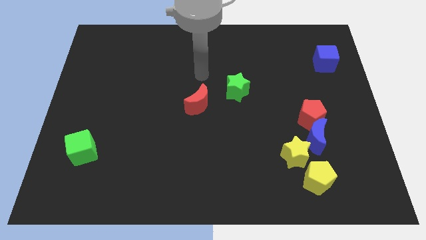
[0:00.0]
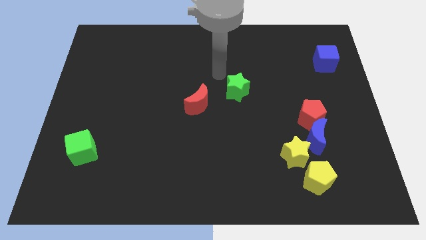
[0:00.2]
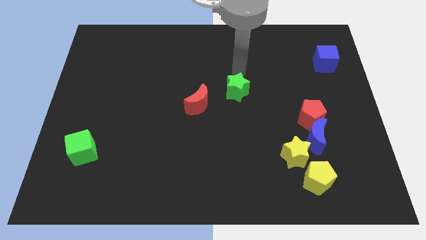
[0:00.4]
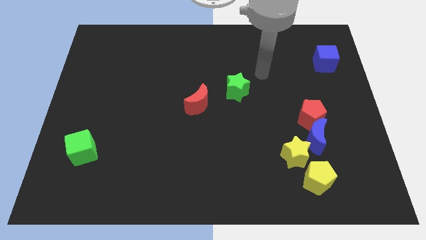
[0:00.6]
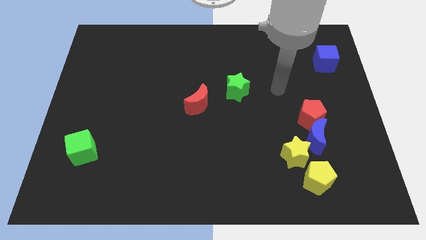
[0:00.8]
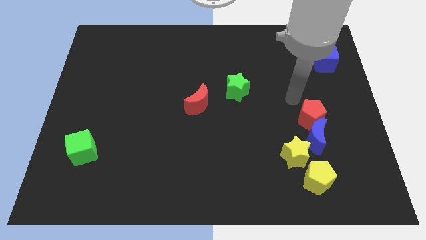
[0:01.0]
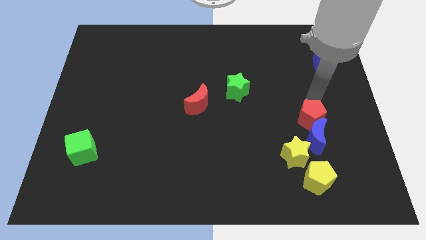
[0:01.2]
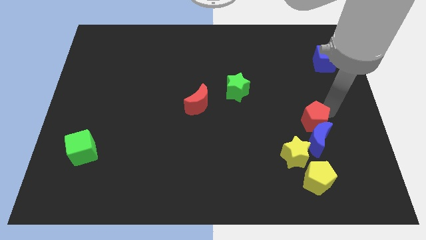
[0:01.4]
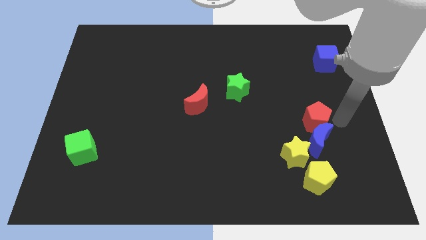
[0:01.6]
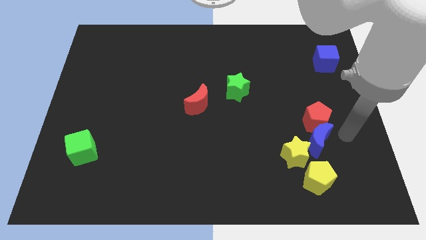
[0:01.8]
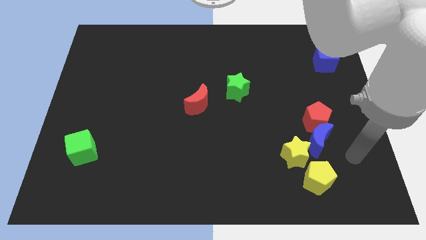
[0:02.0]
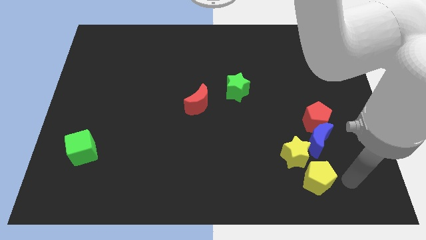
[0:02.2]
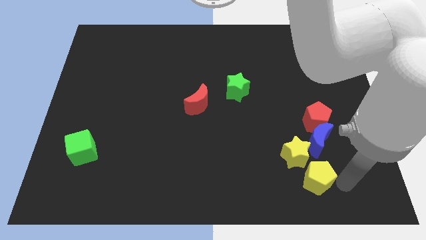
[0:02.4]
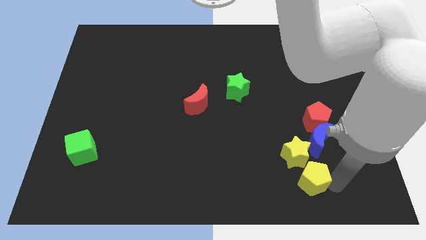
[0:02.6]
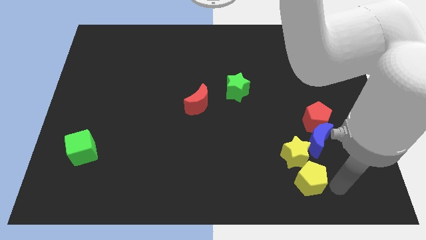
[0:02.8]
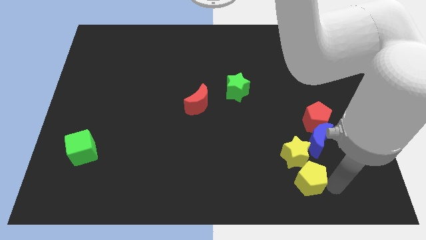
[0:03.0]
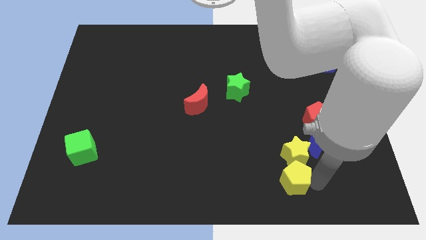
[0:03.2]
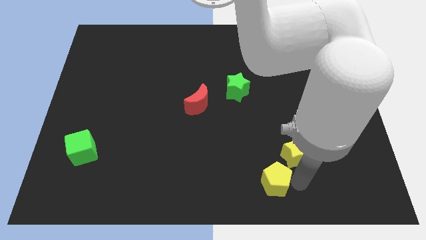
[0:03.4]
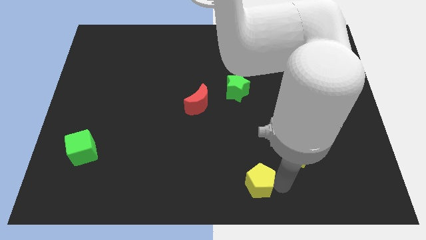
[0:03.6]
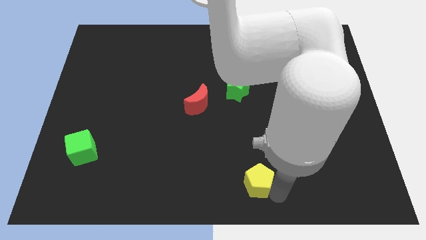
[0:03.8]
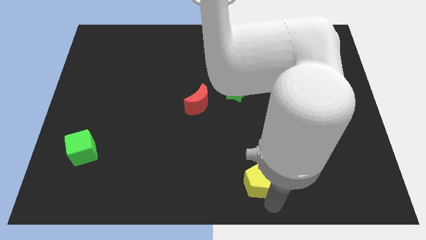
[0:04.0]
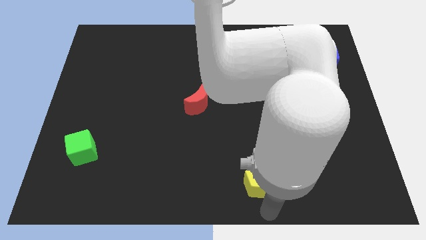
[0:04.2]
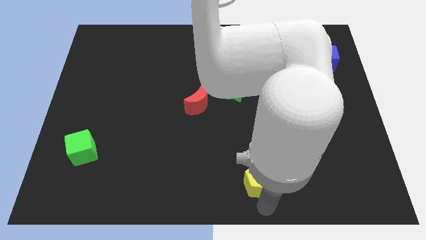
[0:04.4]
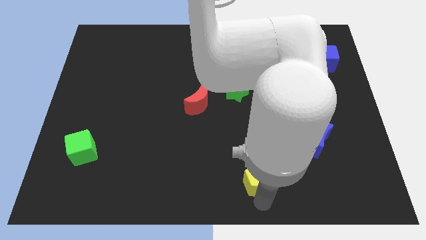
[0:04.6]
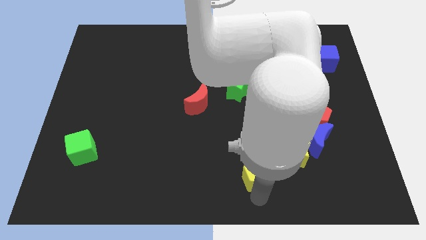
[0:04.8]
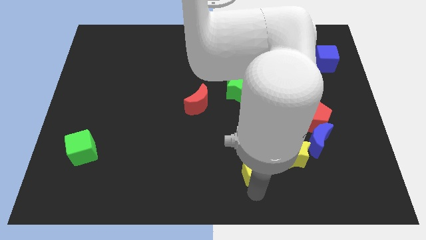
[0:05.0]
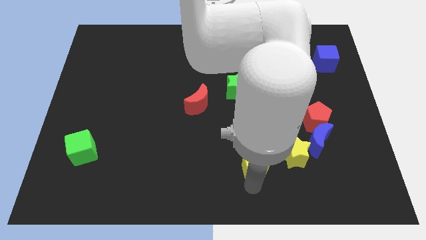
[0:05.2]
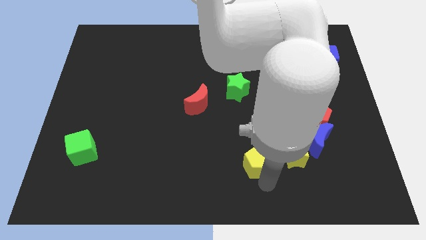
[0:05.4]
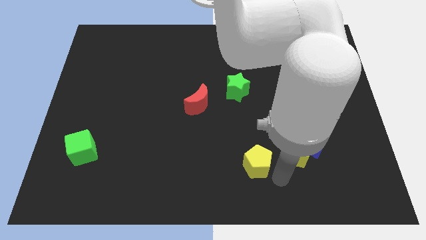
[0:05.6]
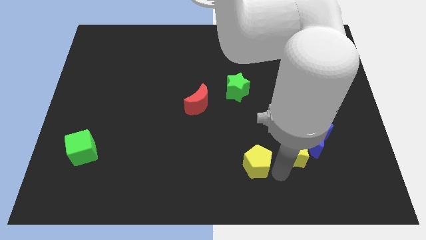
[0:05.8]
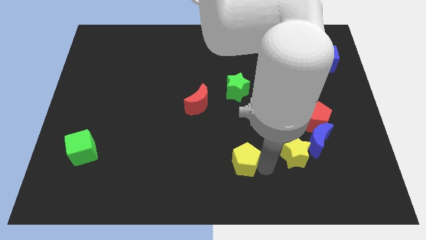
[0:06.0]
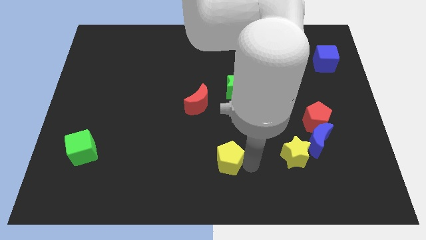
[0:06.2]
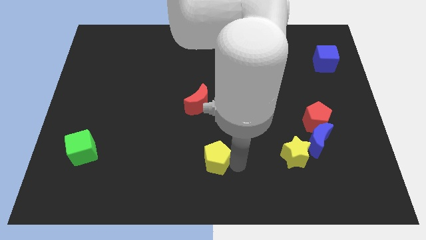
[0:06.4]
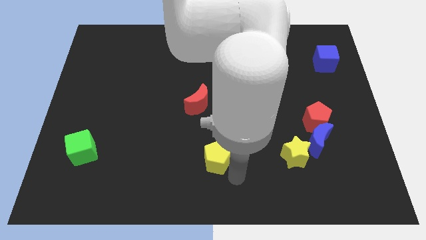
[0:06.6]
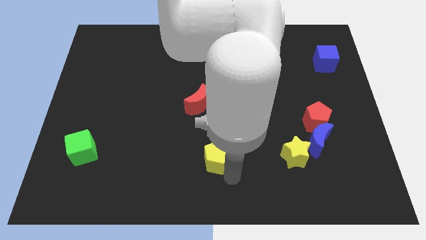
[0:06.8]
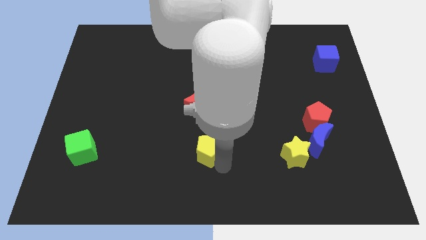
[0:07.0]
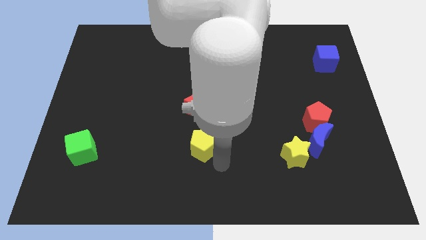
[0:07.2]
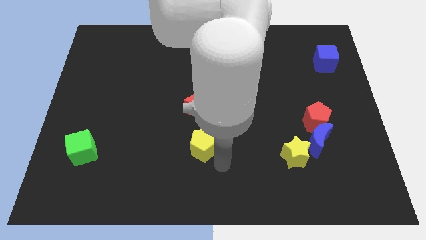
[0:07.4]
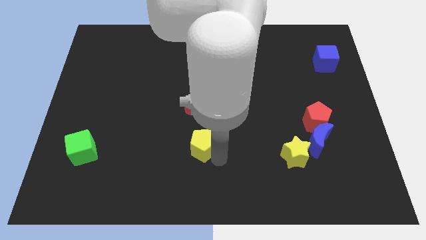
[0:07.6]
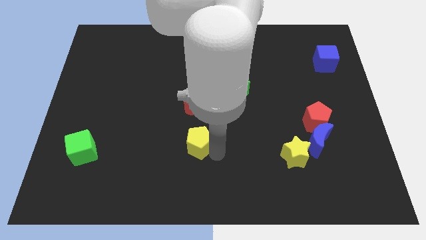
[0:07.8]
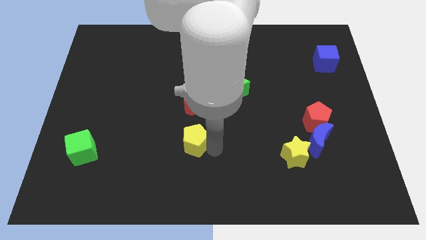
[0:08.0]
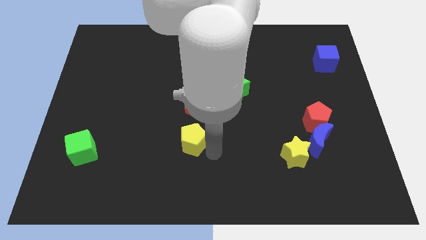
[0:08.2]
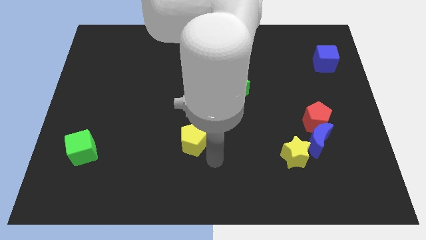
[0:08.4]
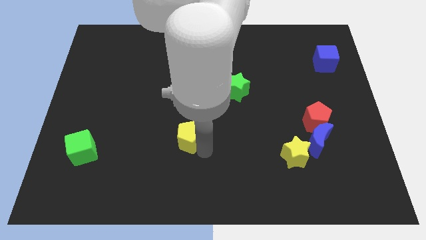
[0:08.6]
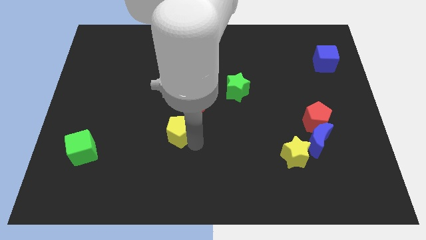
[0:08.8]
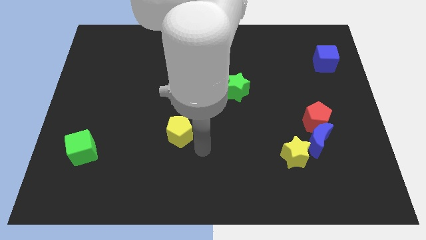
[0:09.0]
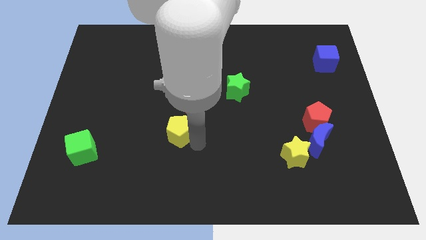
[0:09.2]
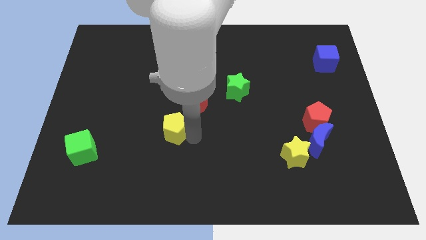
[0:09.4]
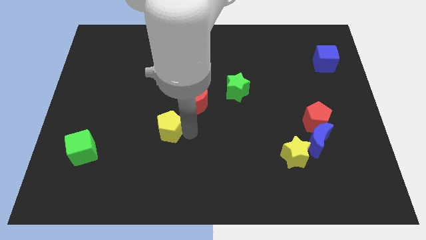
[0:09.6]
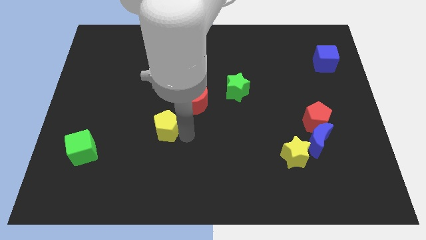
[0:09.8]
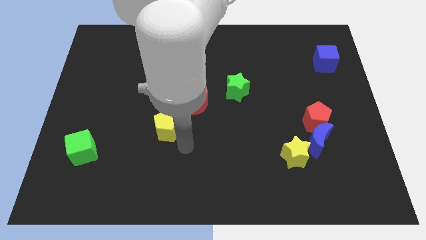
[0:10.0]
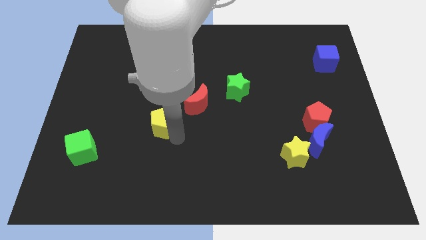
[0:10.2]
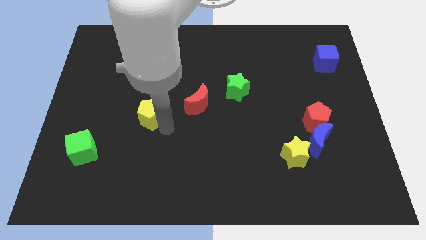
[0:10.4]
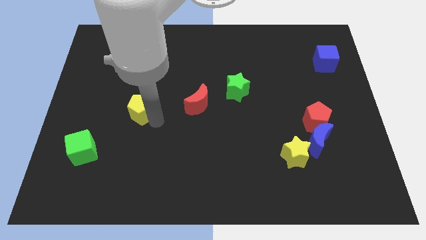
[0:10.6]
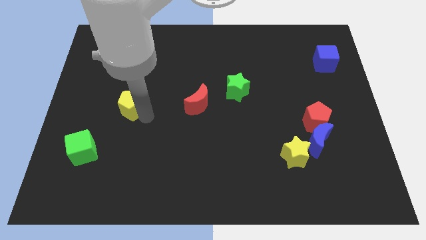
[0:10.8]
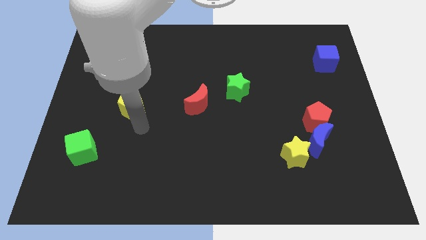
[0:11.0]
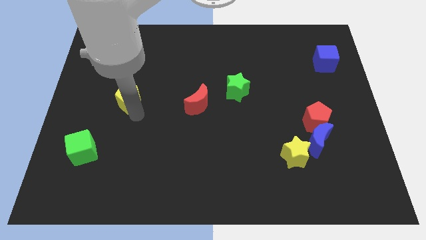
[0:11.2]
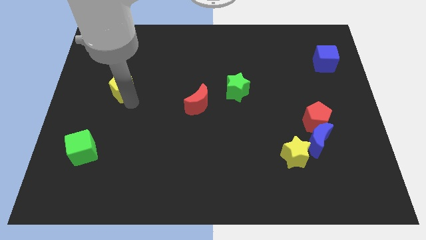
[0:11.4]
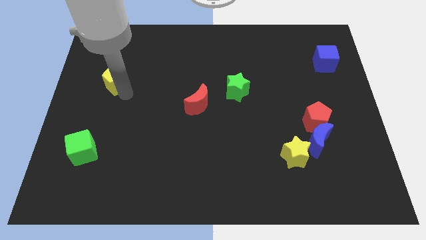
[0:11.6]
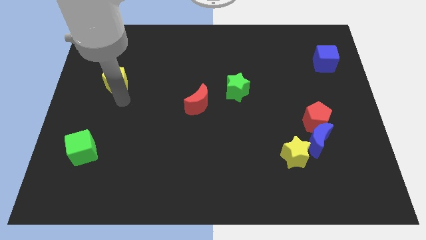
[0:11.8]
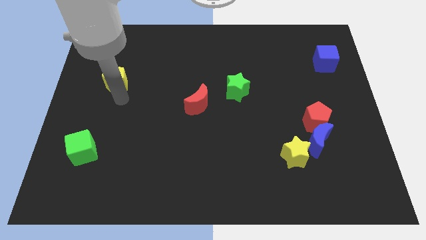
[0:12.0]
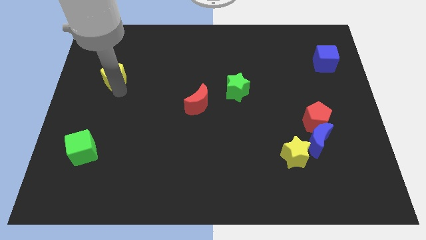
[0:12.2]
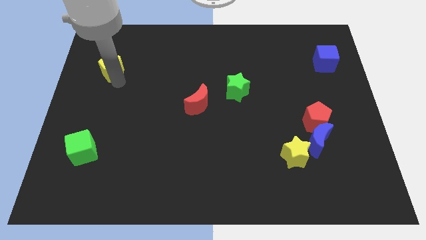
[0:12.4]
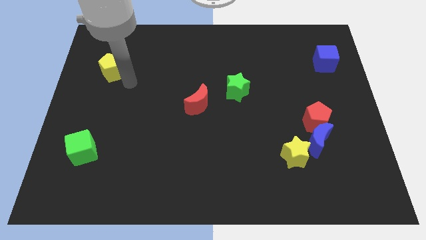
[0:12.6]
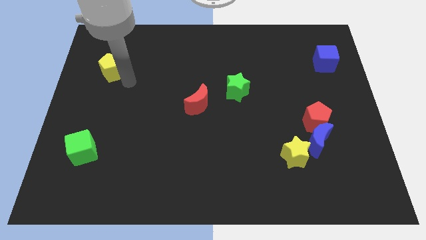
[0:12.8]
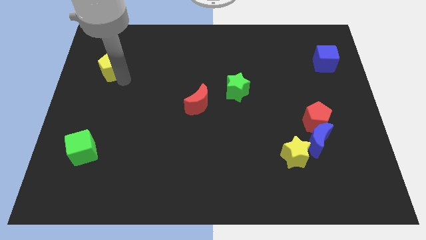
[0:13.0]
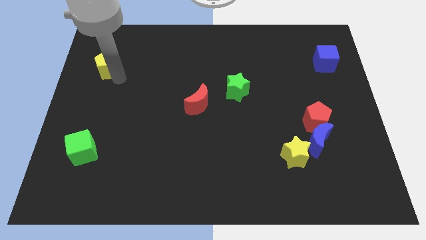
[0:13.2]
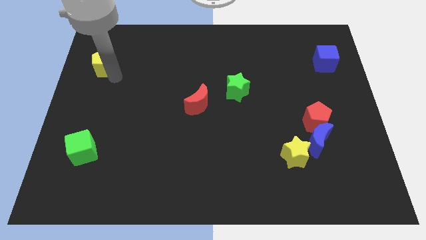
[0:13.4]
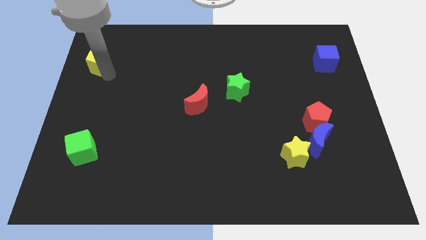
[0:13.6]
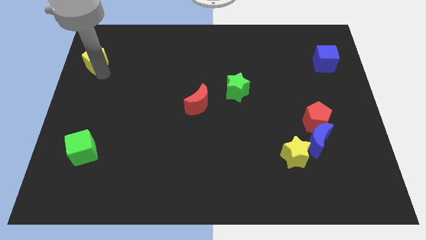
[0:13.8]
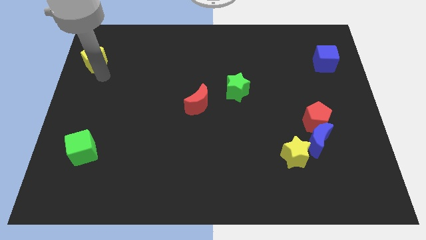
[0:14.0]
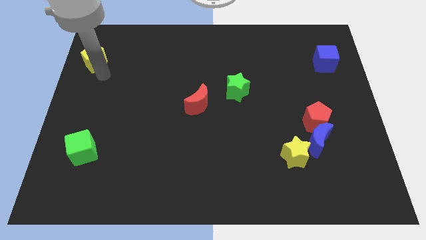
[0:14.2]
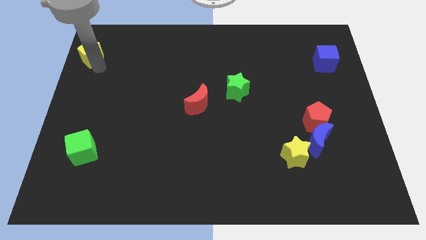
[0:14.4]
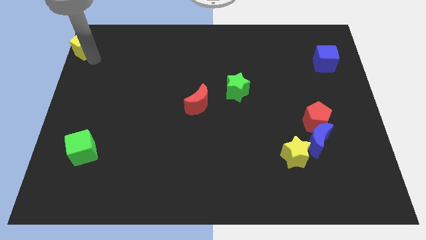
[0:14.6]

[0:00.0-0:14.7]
slide the yellow pentagon to the upper left corner
